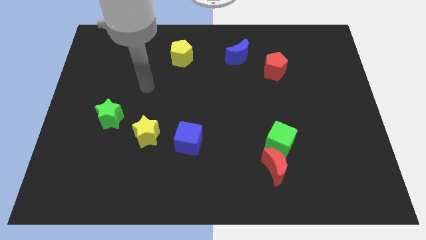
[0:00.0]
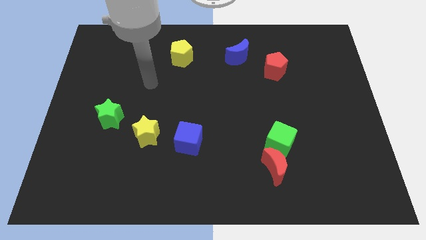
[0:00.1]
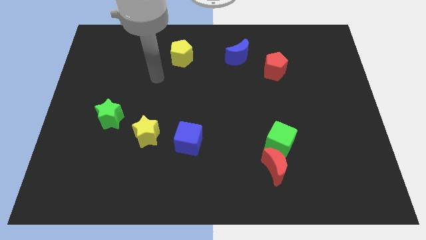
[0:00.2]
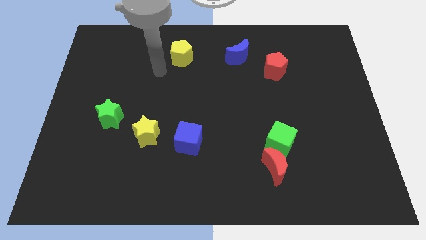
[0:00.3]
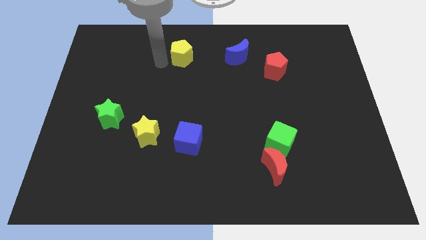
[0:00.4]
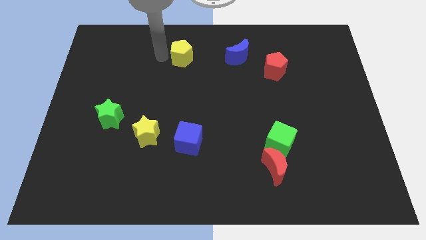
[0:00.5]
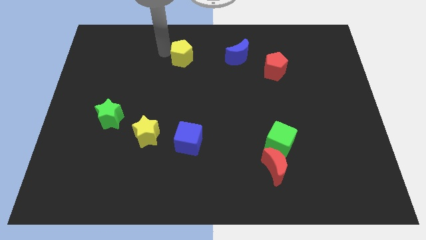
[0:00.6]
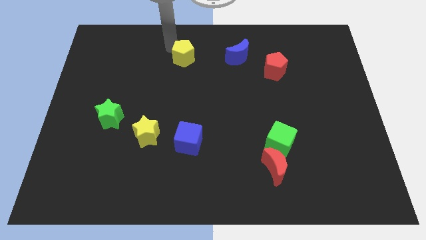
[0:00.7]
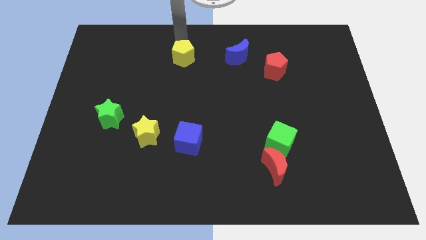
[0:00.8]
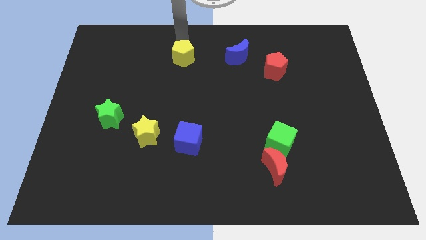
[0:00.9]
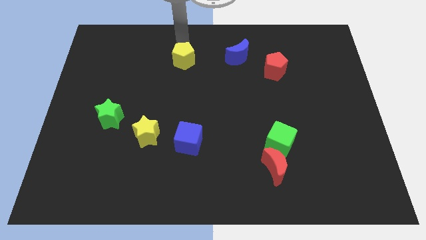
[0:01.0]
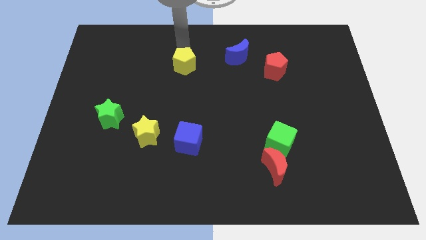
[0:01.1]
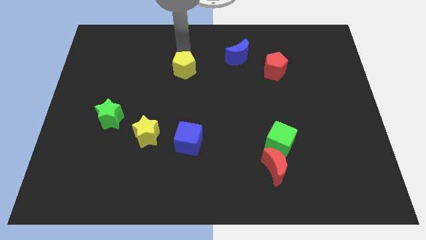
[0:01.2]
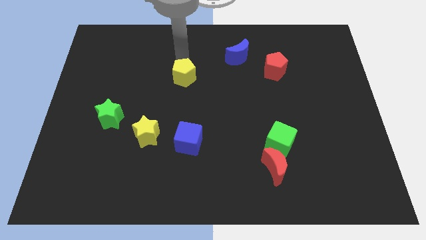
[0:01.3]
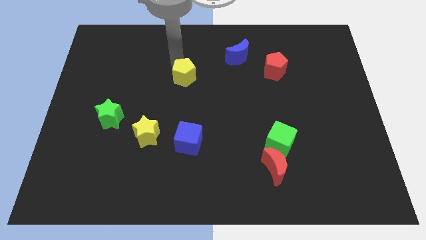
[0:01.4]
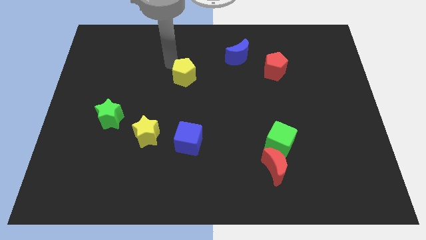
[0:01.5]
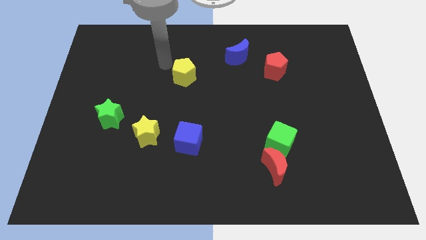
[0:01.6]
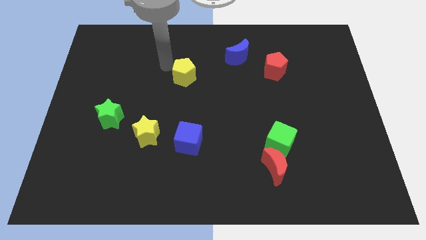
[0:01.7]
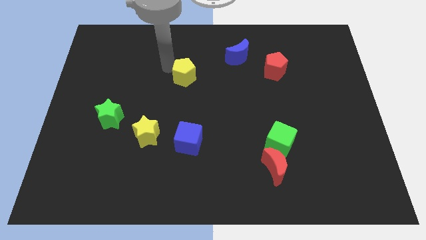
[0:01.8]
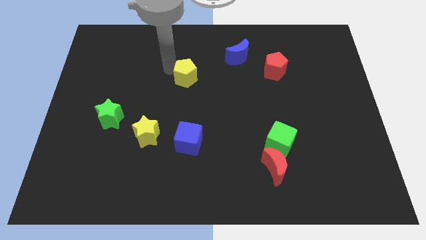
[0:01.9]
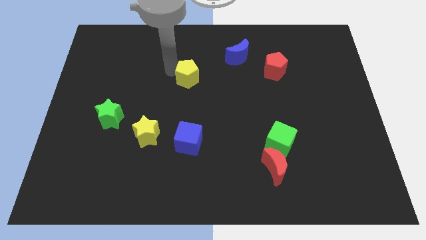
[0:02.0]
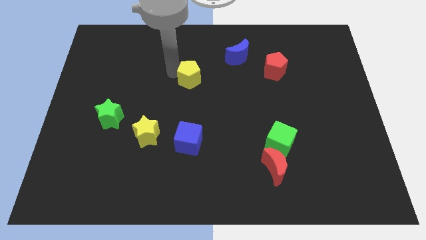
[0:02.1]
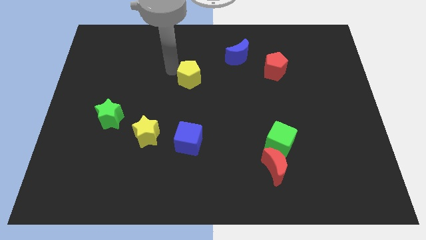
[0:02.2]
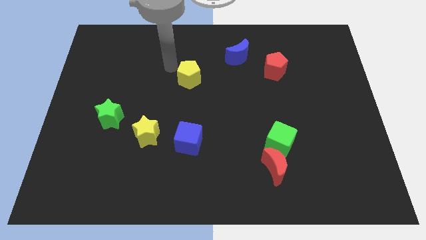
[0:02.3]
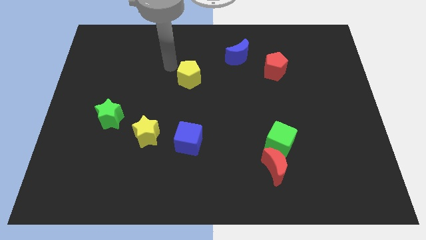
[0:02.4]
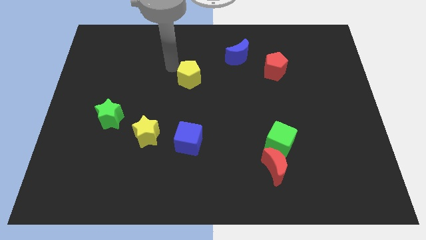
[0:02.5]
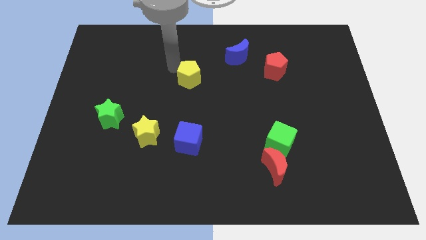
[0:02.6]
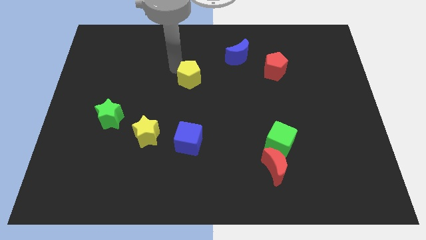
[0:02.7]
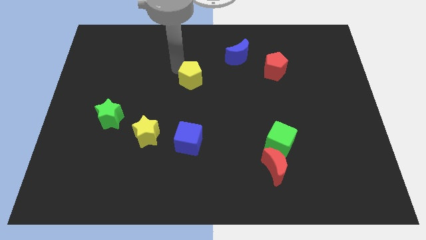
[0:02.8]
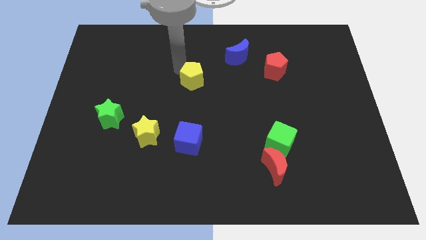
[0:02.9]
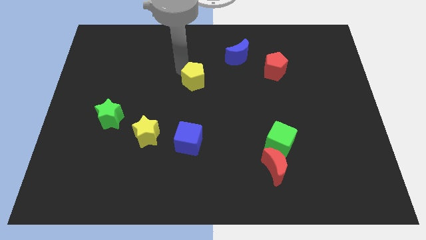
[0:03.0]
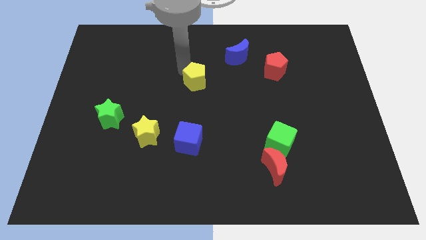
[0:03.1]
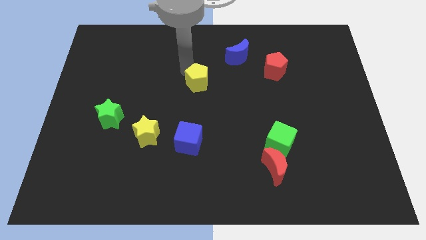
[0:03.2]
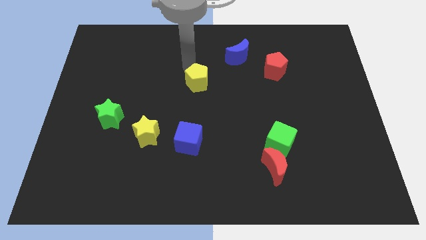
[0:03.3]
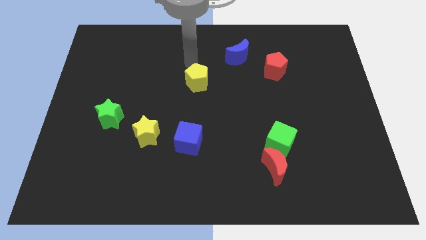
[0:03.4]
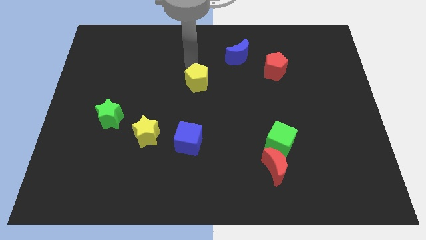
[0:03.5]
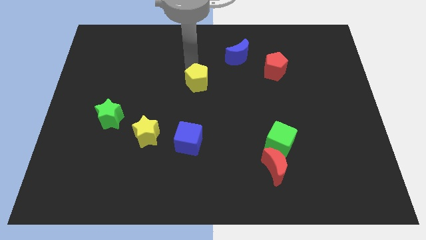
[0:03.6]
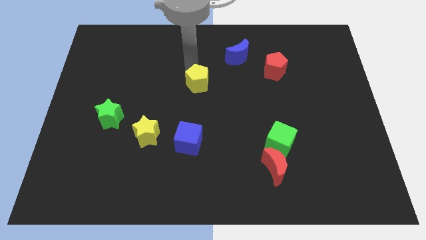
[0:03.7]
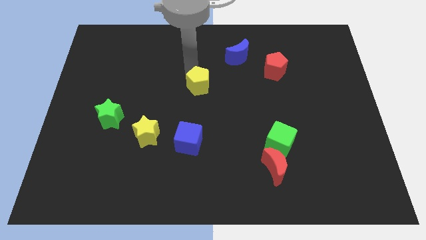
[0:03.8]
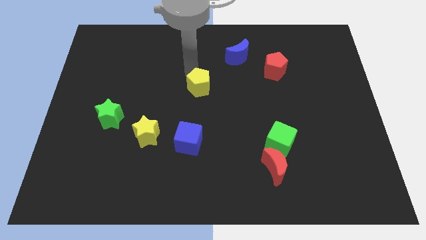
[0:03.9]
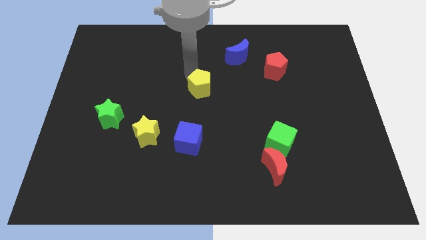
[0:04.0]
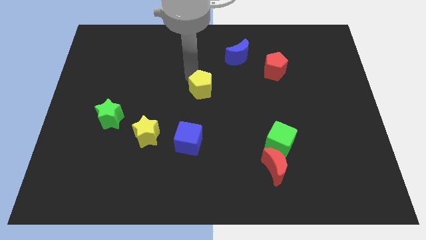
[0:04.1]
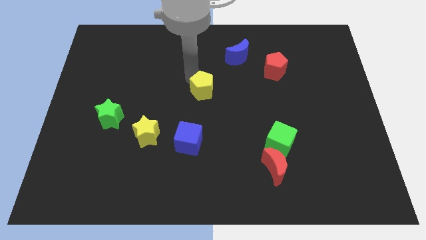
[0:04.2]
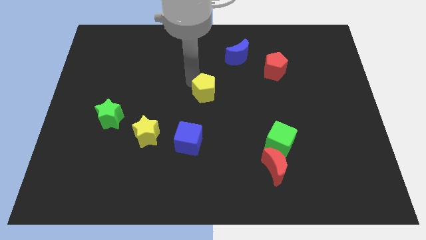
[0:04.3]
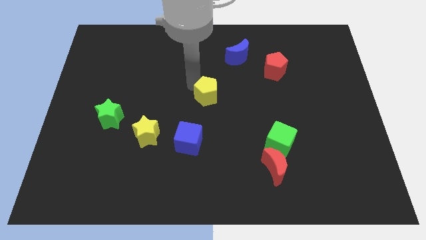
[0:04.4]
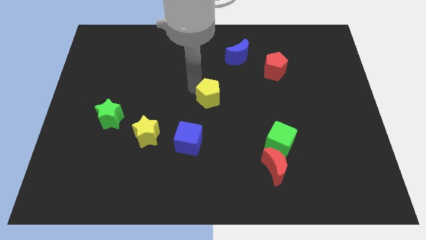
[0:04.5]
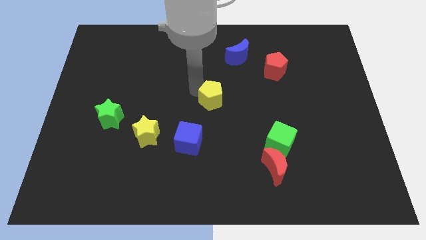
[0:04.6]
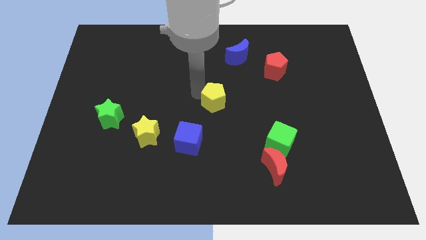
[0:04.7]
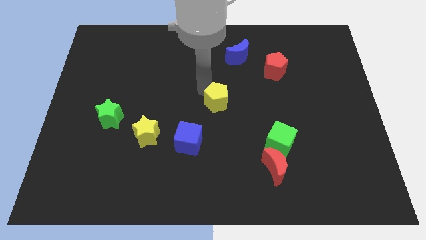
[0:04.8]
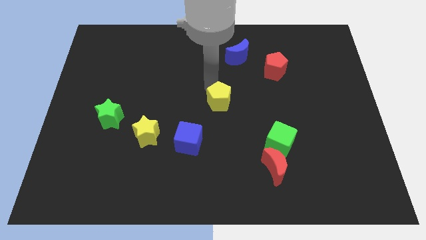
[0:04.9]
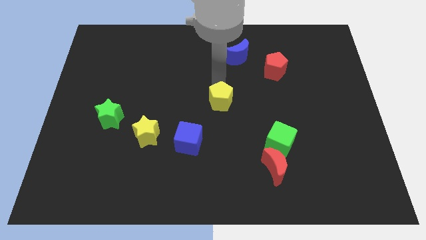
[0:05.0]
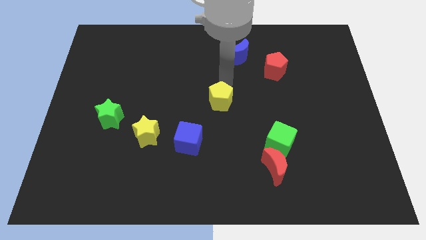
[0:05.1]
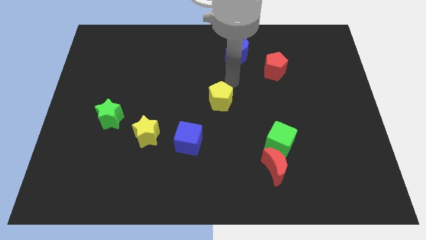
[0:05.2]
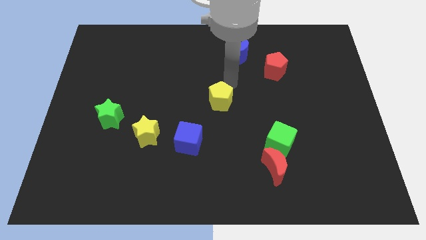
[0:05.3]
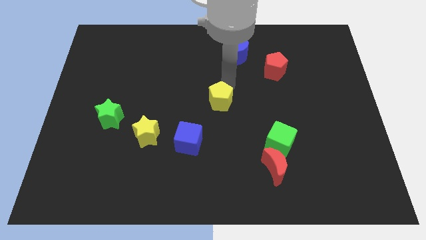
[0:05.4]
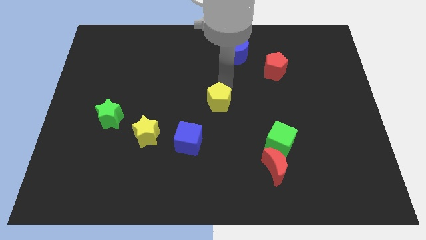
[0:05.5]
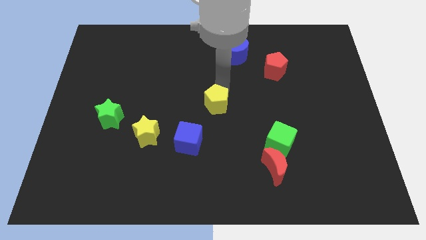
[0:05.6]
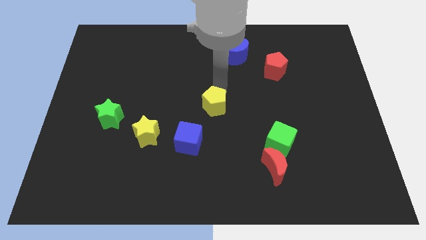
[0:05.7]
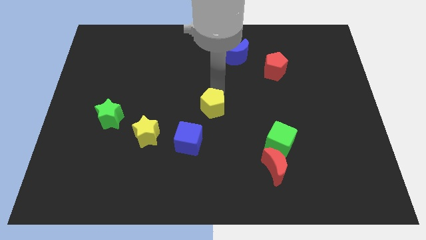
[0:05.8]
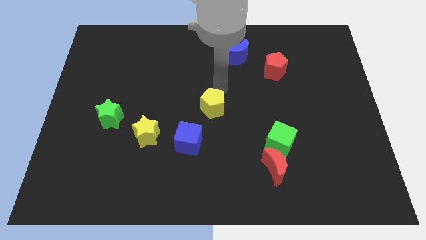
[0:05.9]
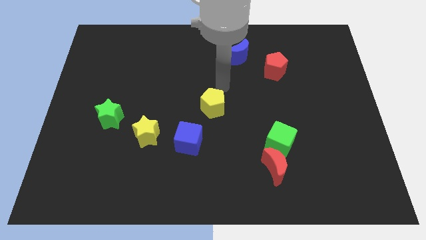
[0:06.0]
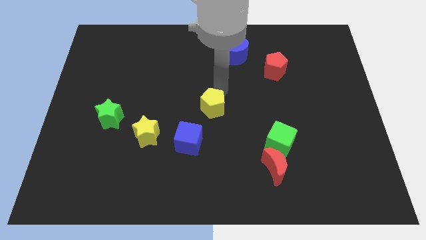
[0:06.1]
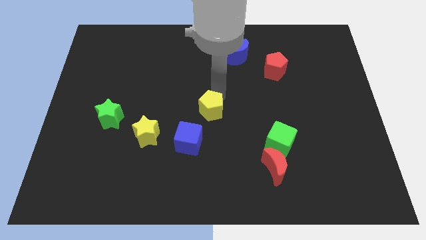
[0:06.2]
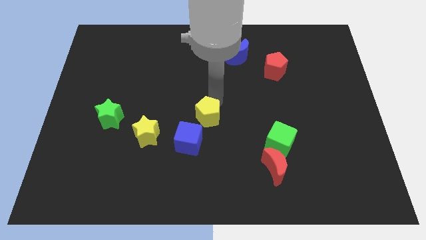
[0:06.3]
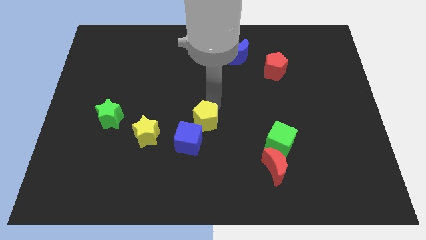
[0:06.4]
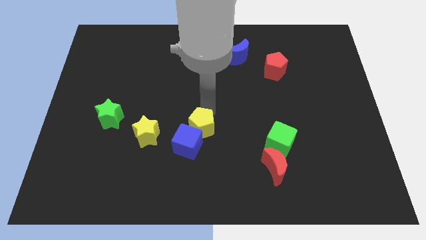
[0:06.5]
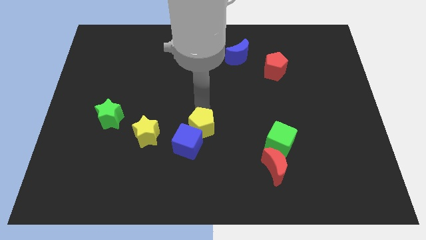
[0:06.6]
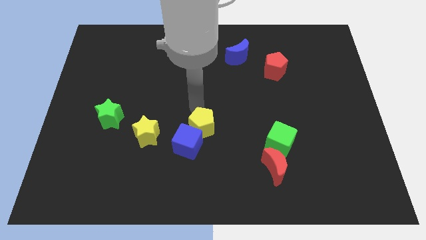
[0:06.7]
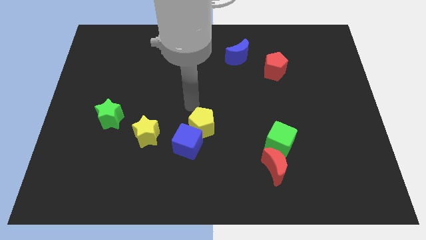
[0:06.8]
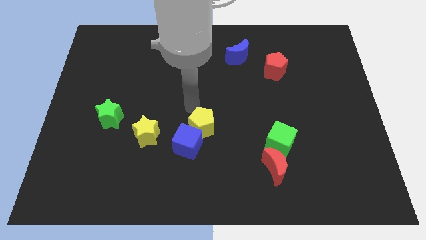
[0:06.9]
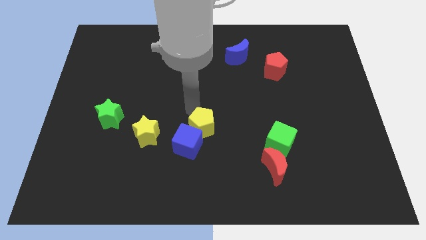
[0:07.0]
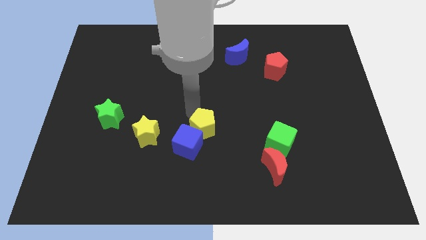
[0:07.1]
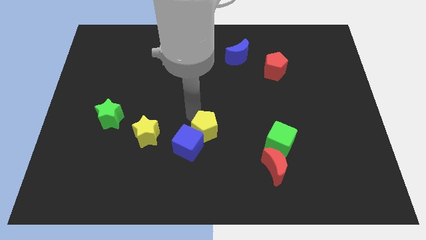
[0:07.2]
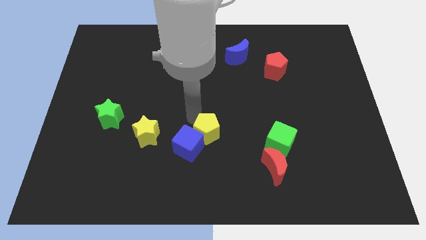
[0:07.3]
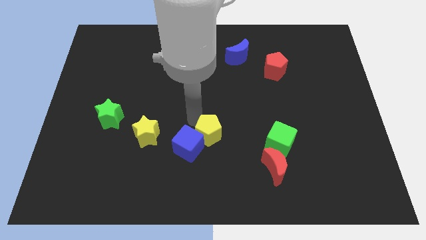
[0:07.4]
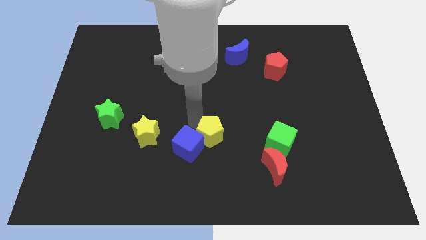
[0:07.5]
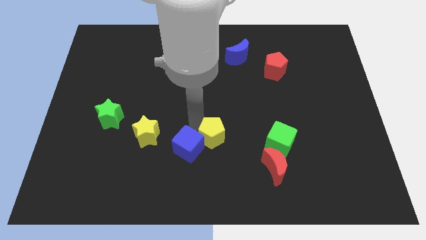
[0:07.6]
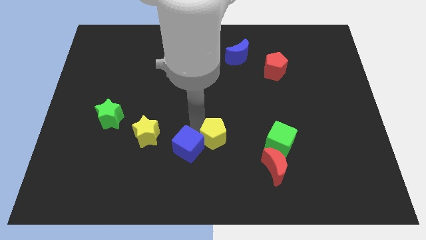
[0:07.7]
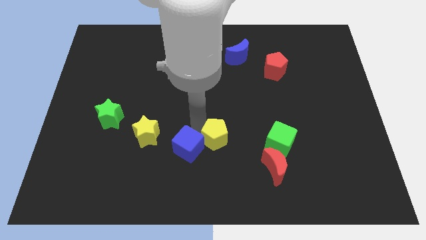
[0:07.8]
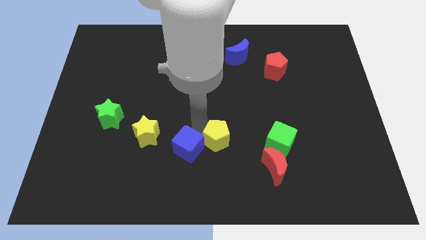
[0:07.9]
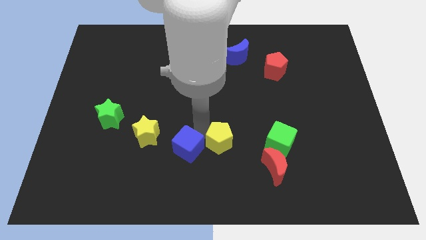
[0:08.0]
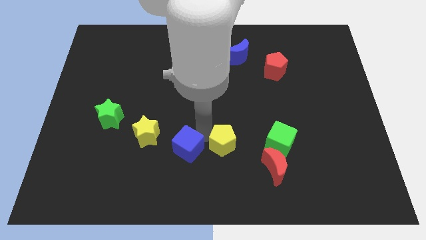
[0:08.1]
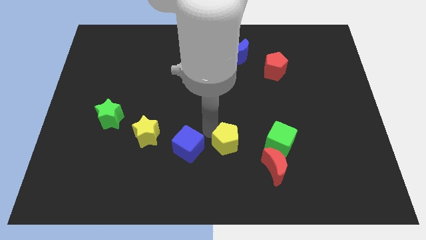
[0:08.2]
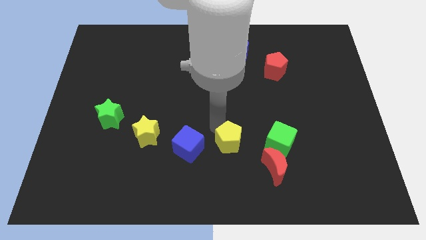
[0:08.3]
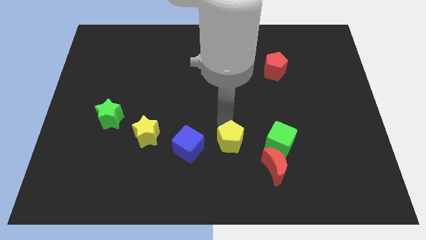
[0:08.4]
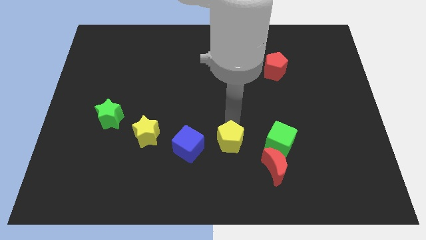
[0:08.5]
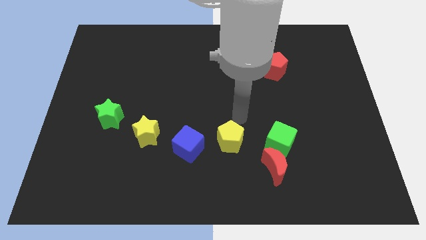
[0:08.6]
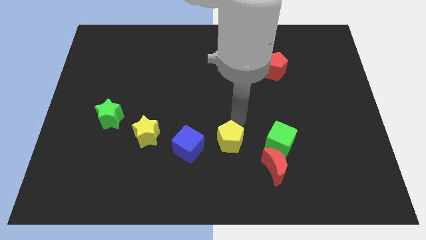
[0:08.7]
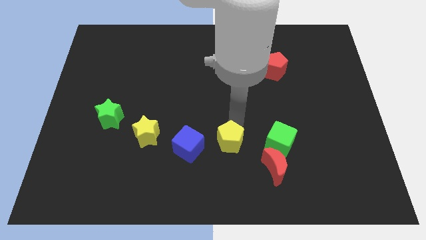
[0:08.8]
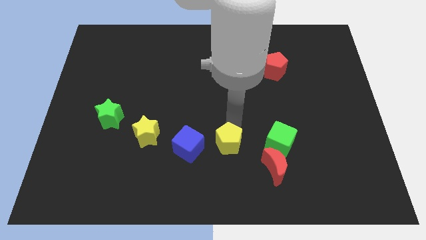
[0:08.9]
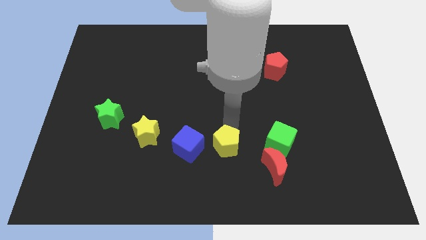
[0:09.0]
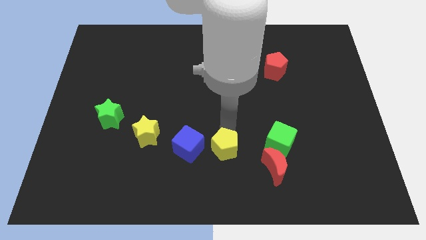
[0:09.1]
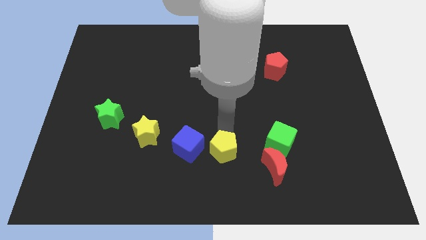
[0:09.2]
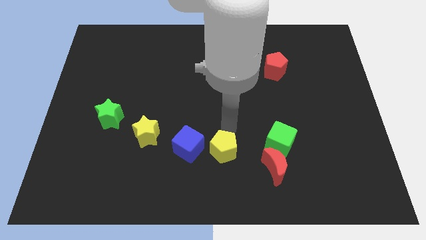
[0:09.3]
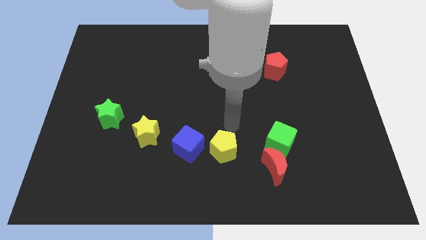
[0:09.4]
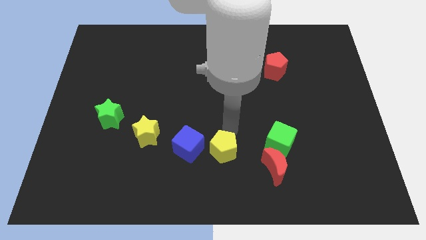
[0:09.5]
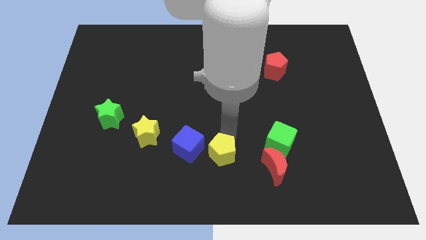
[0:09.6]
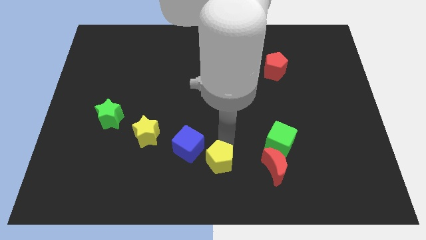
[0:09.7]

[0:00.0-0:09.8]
put the yellow pentagon to the bottom
